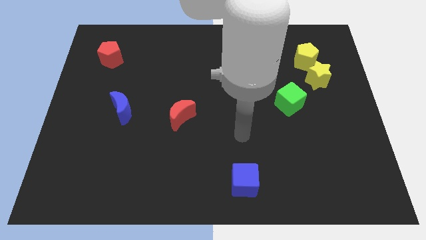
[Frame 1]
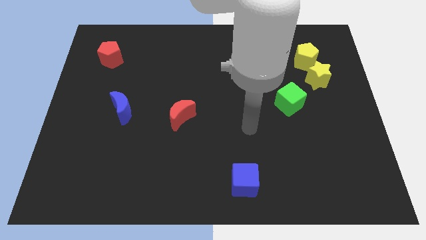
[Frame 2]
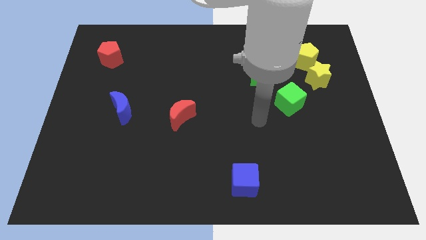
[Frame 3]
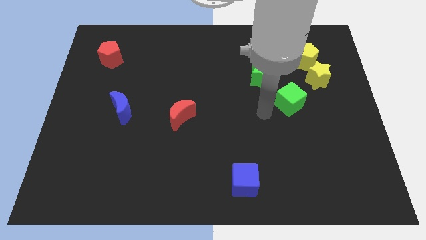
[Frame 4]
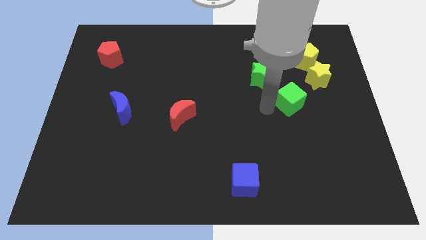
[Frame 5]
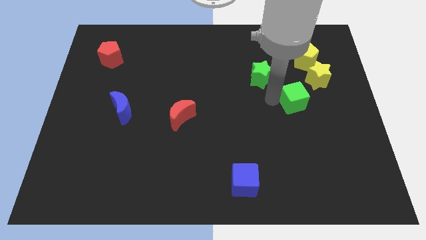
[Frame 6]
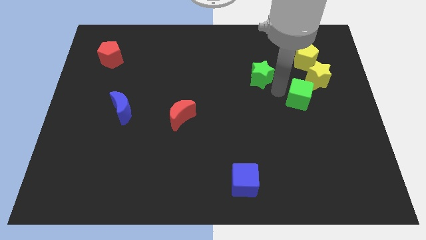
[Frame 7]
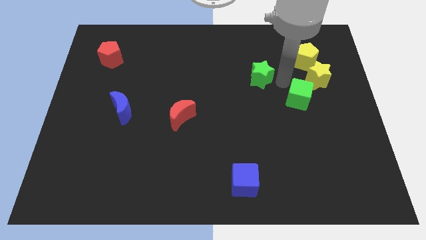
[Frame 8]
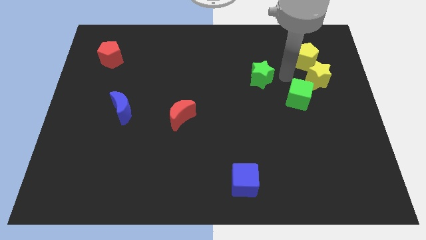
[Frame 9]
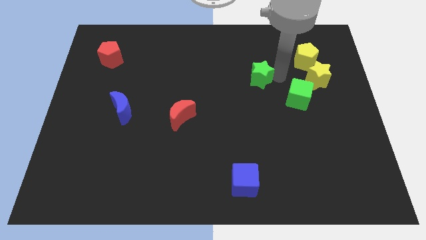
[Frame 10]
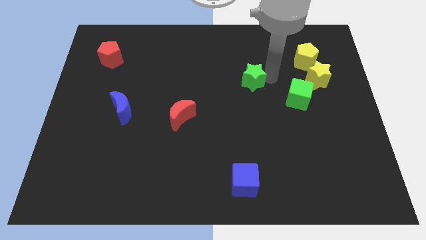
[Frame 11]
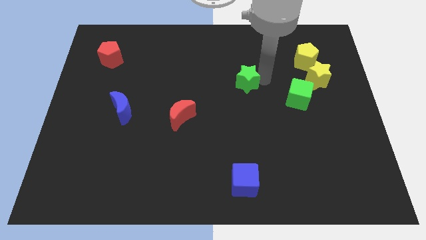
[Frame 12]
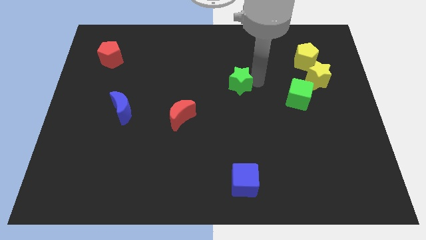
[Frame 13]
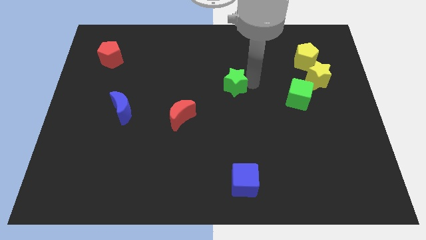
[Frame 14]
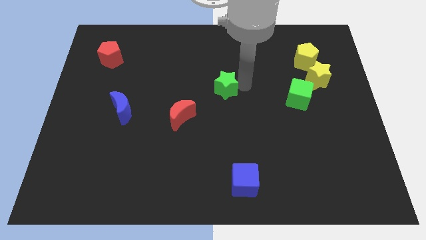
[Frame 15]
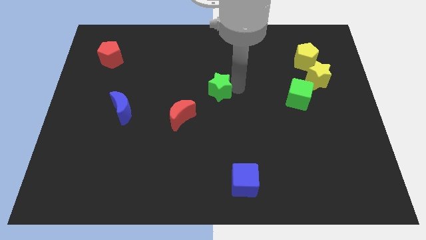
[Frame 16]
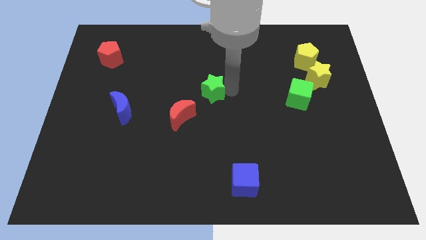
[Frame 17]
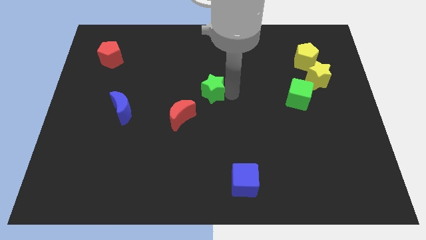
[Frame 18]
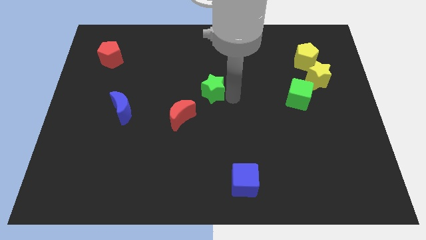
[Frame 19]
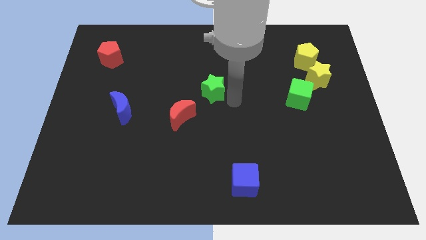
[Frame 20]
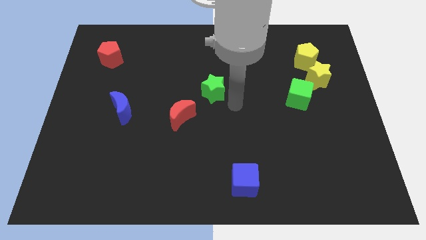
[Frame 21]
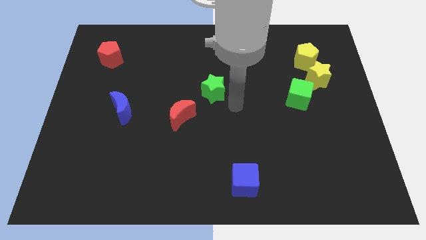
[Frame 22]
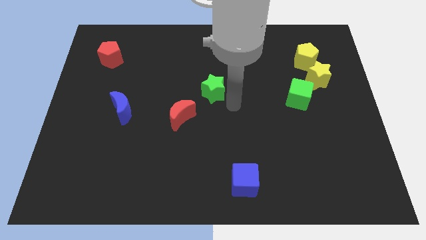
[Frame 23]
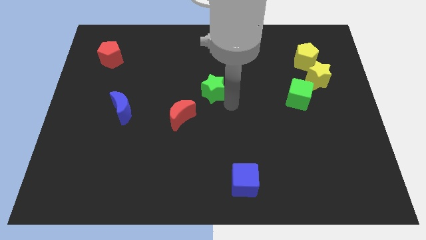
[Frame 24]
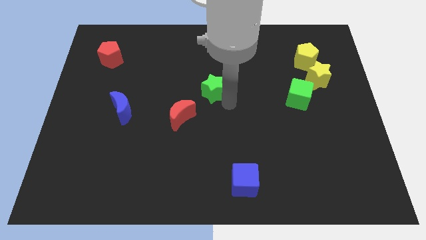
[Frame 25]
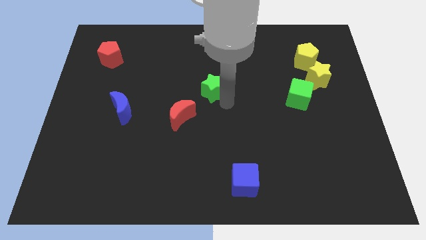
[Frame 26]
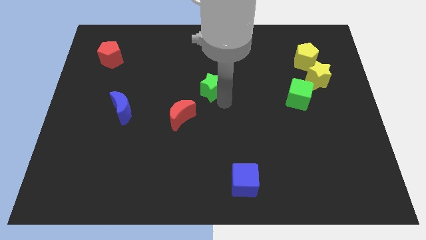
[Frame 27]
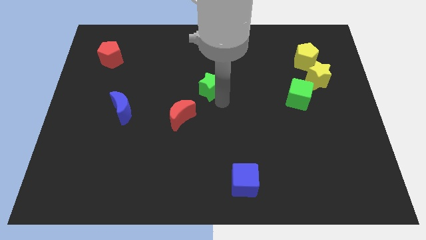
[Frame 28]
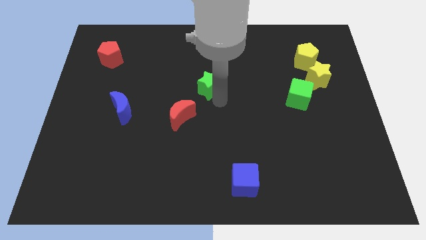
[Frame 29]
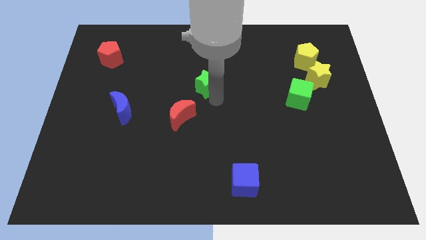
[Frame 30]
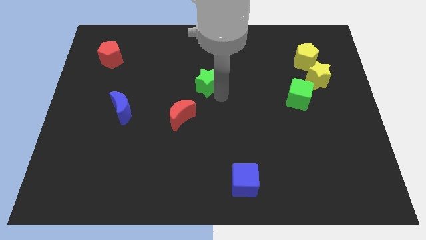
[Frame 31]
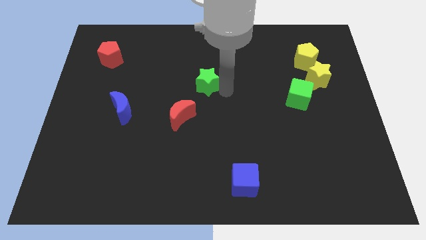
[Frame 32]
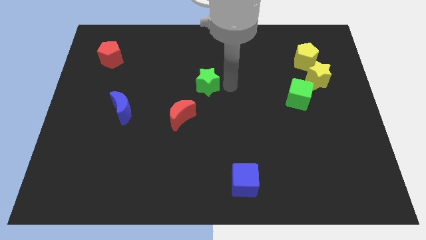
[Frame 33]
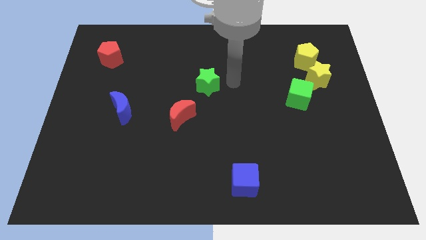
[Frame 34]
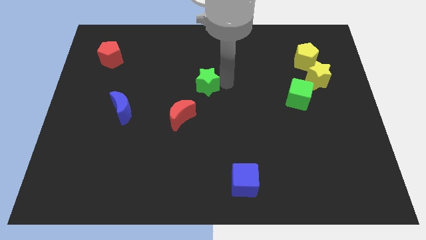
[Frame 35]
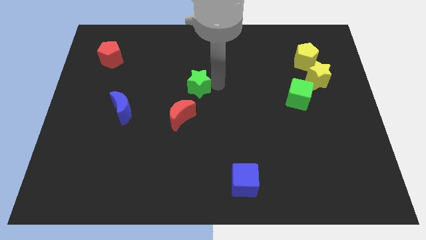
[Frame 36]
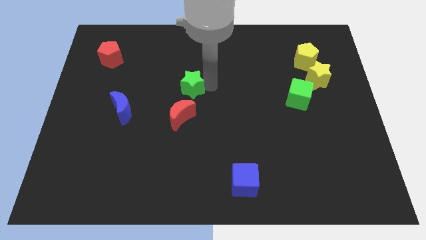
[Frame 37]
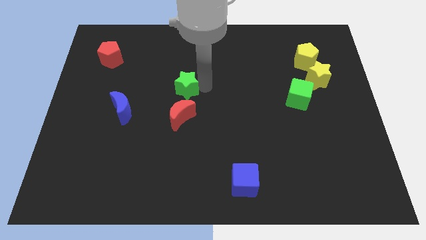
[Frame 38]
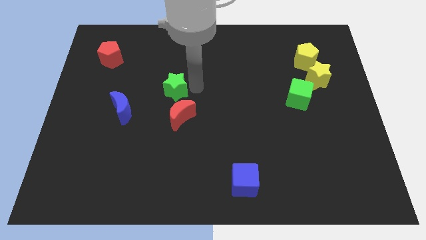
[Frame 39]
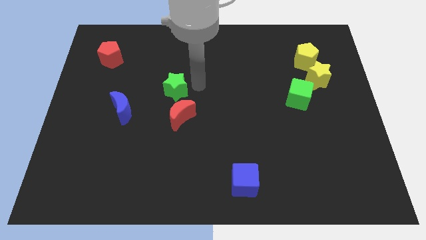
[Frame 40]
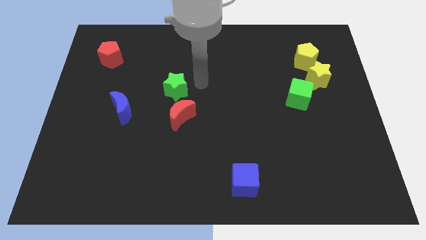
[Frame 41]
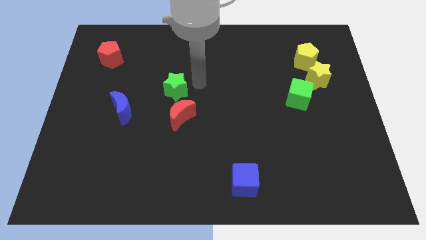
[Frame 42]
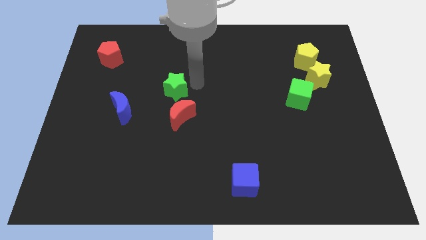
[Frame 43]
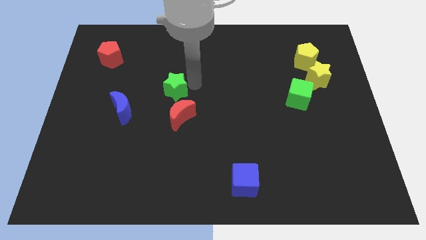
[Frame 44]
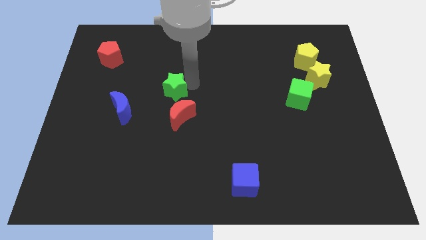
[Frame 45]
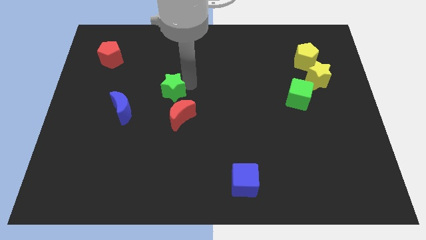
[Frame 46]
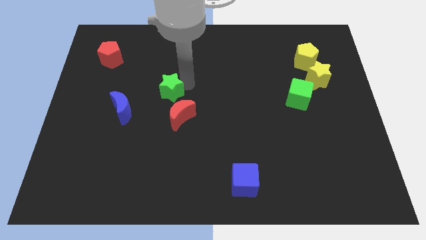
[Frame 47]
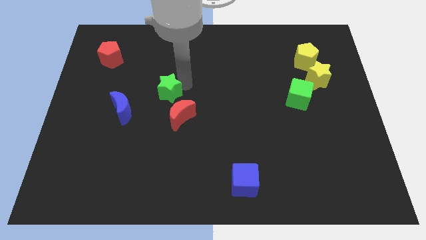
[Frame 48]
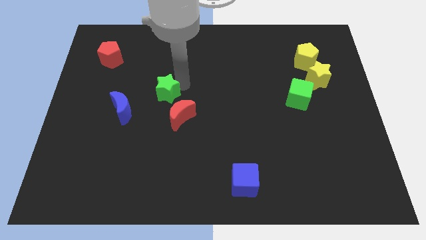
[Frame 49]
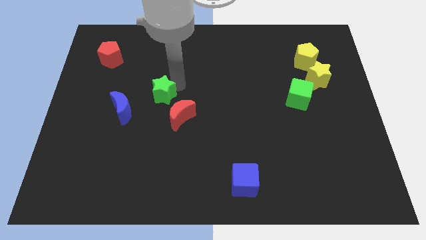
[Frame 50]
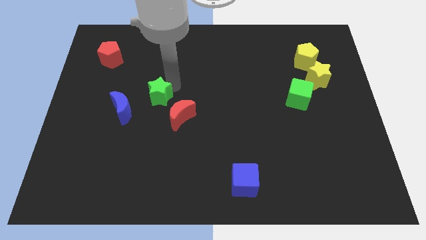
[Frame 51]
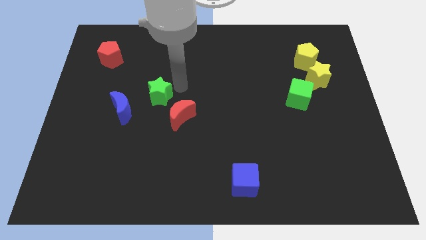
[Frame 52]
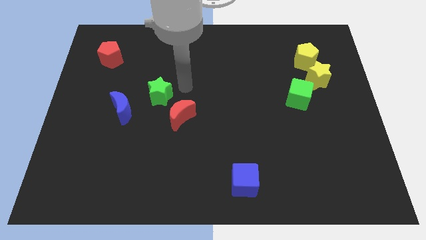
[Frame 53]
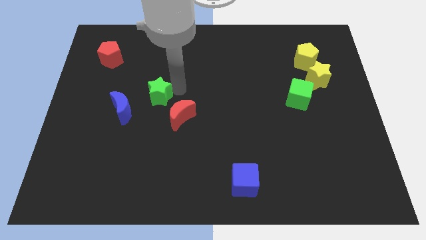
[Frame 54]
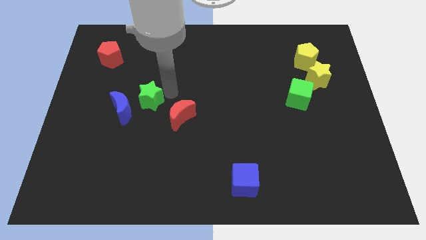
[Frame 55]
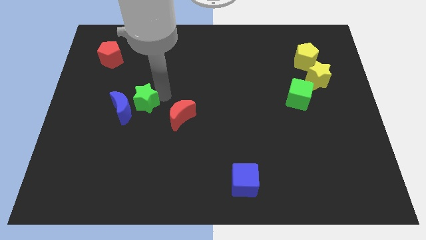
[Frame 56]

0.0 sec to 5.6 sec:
put the green star towards the blue moon

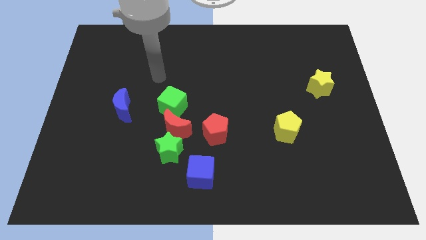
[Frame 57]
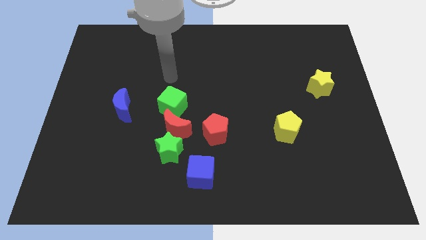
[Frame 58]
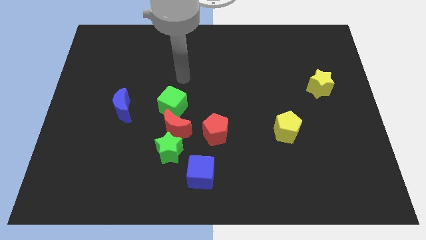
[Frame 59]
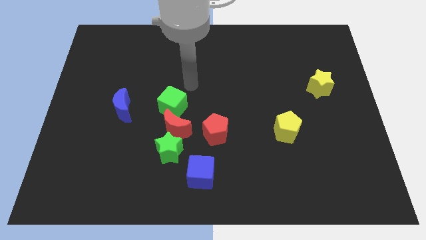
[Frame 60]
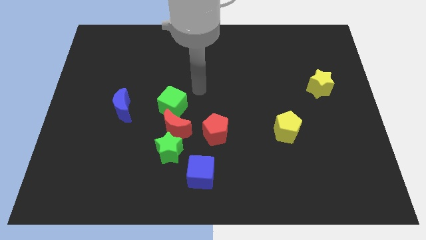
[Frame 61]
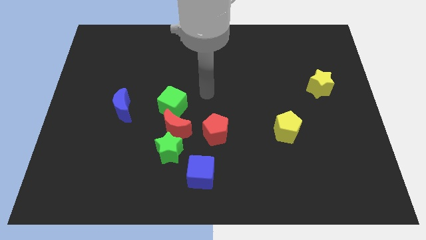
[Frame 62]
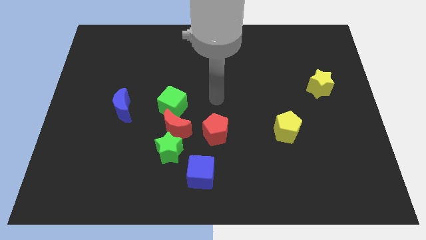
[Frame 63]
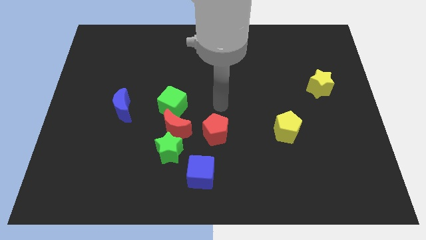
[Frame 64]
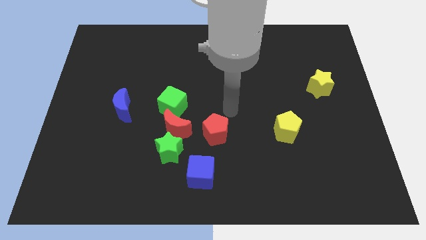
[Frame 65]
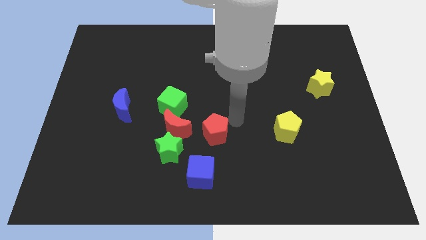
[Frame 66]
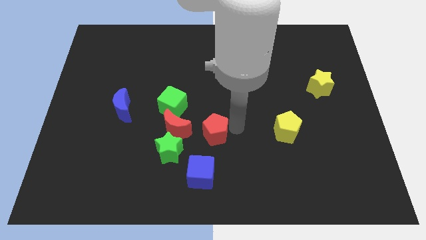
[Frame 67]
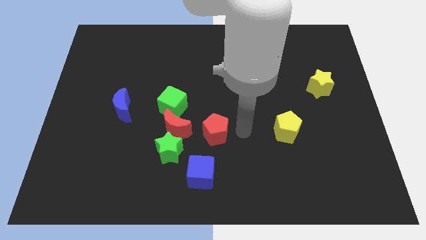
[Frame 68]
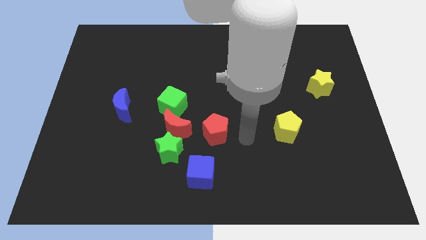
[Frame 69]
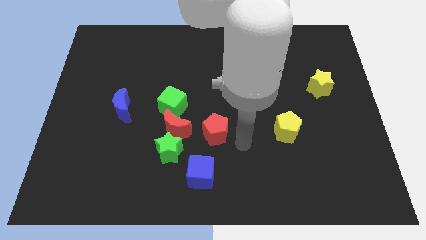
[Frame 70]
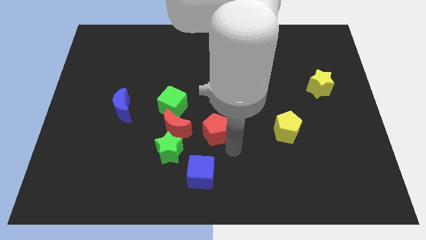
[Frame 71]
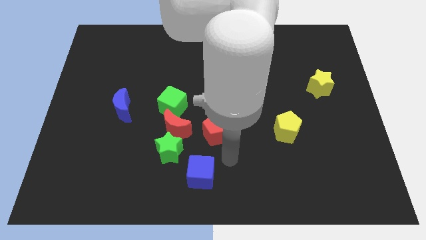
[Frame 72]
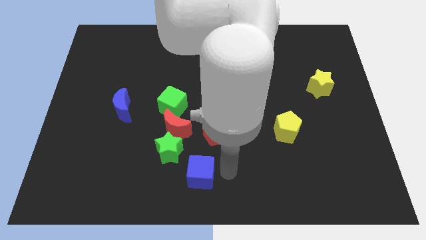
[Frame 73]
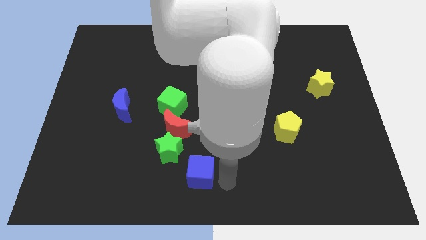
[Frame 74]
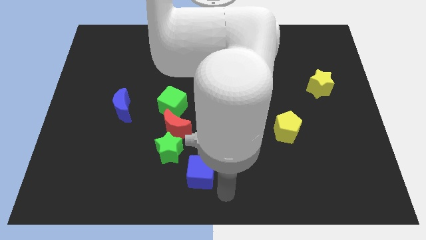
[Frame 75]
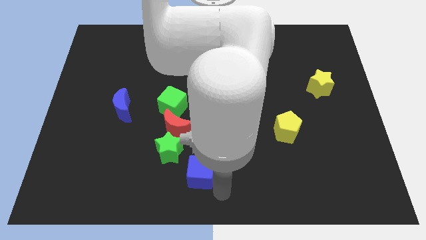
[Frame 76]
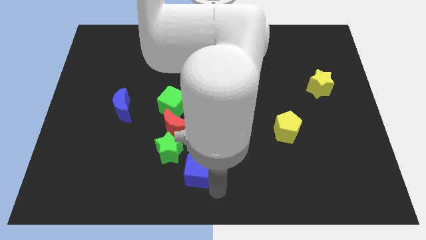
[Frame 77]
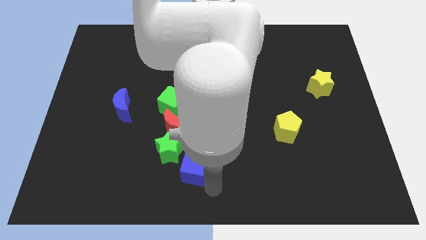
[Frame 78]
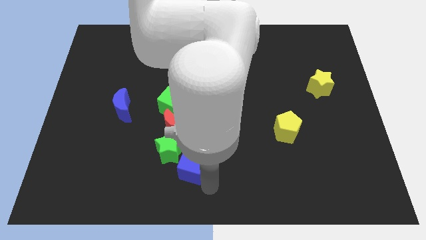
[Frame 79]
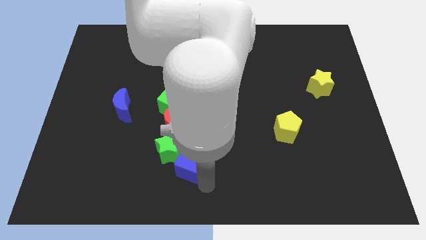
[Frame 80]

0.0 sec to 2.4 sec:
put the blue cube to the green star
